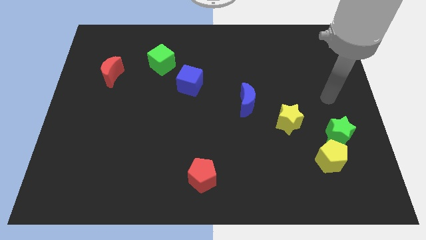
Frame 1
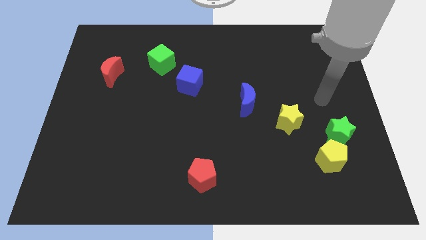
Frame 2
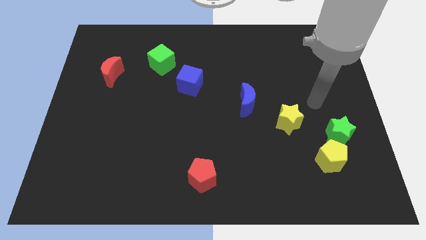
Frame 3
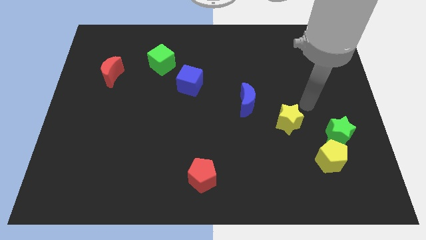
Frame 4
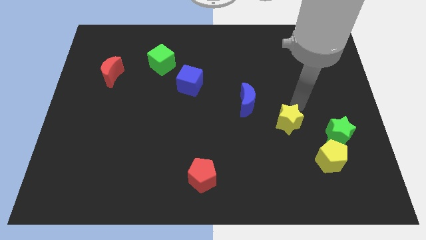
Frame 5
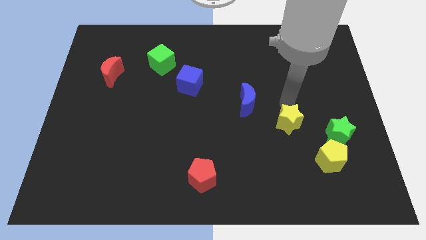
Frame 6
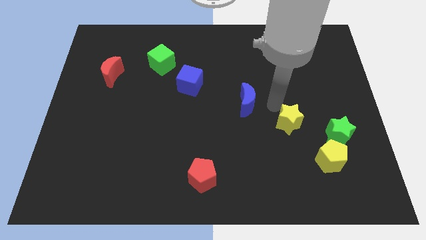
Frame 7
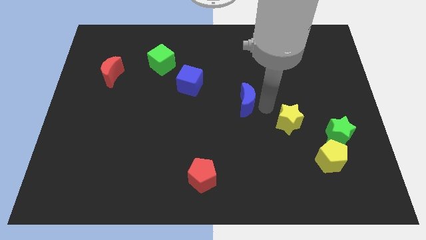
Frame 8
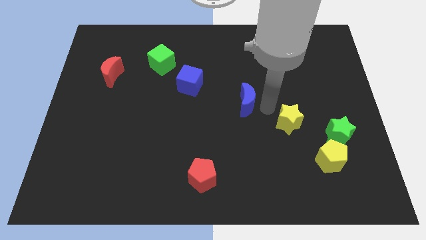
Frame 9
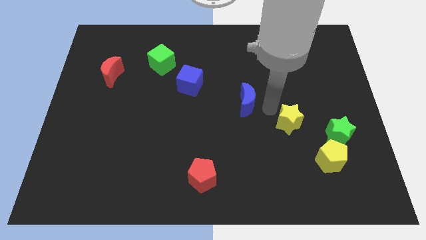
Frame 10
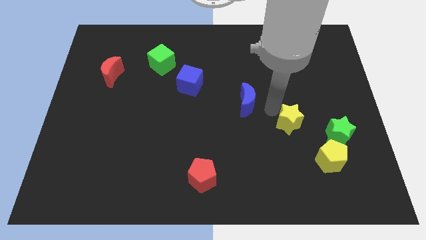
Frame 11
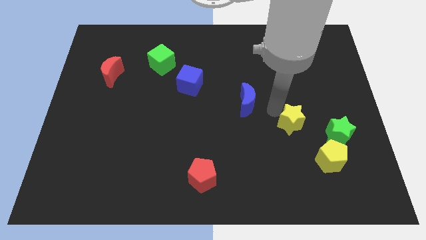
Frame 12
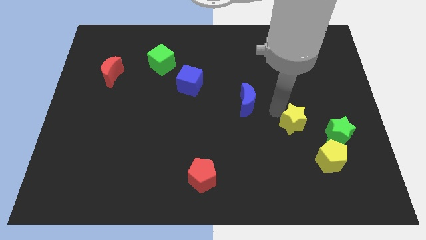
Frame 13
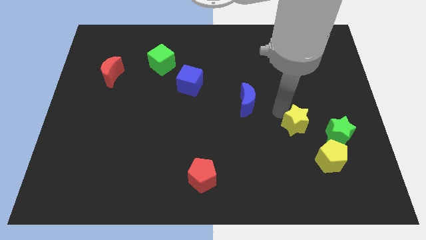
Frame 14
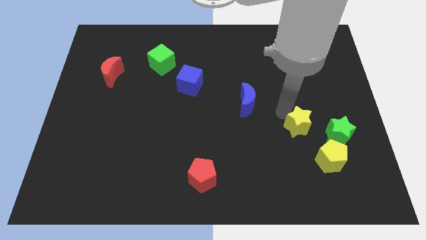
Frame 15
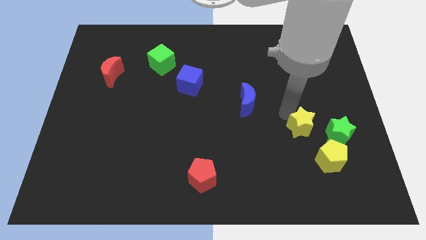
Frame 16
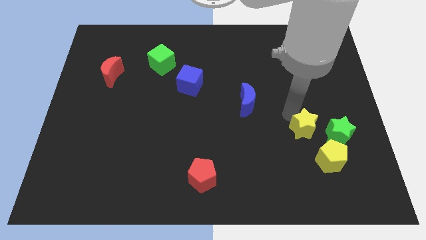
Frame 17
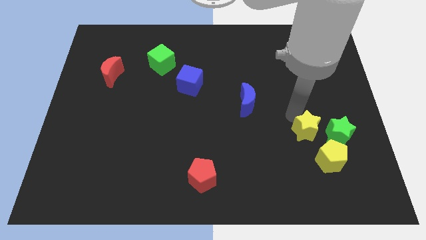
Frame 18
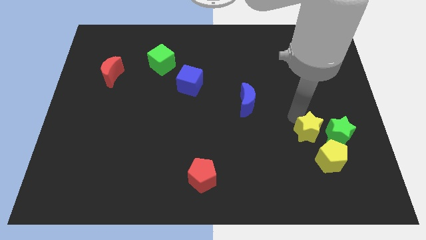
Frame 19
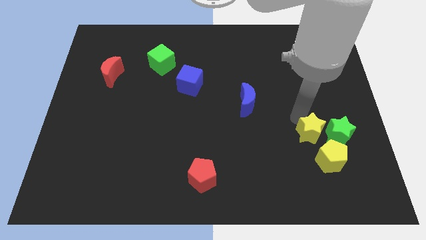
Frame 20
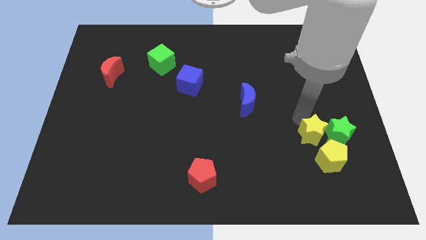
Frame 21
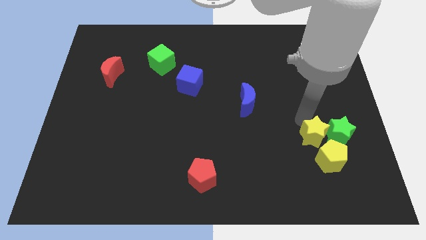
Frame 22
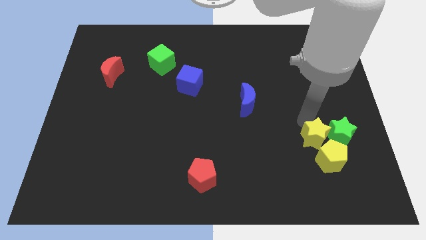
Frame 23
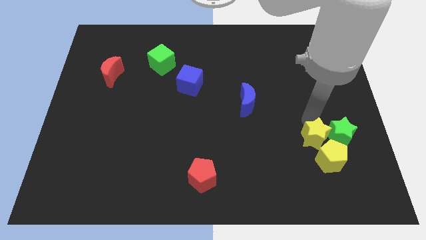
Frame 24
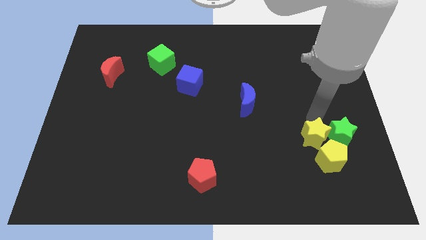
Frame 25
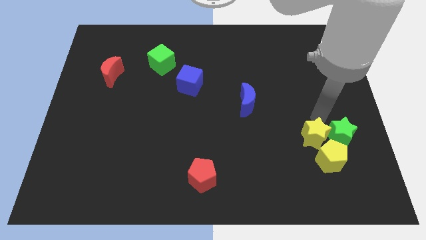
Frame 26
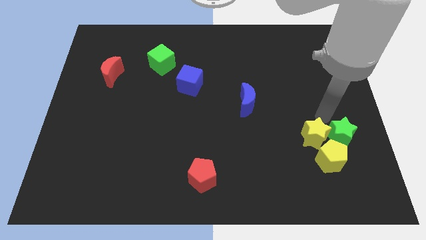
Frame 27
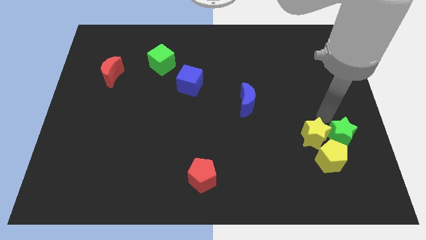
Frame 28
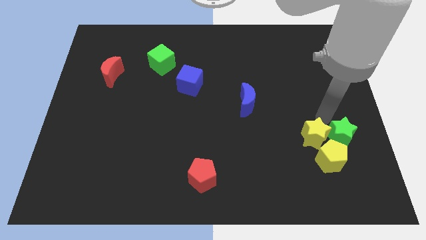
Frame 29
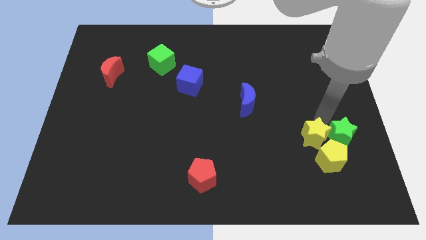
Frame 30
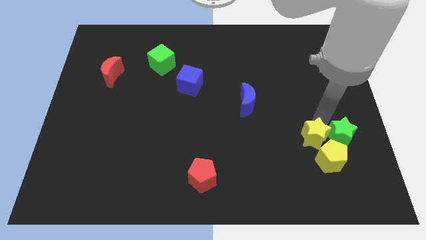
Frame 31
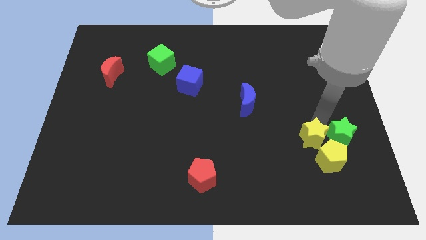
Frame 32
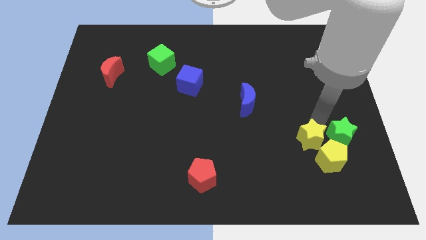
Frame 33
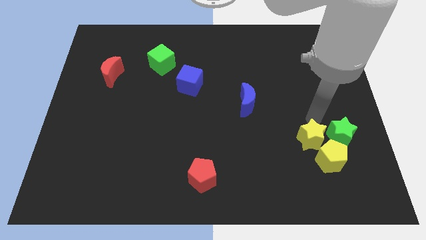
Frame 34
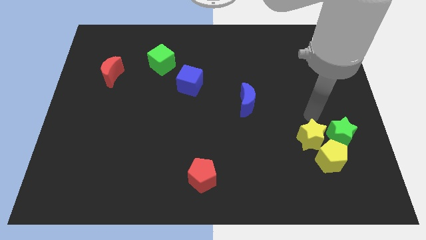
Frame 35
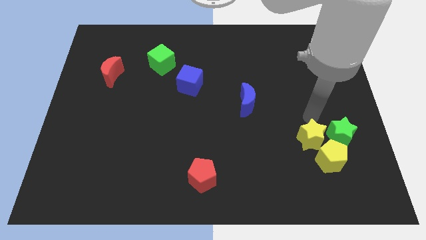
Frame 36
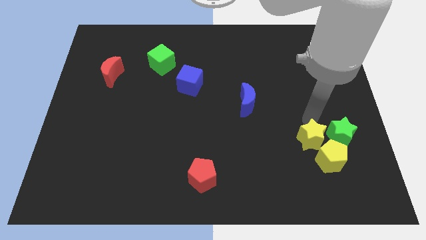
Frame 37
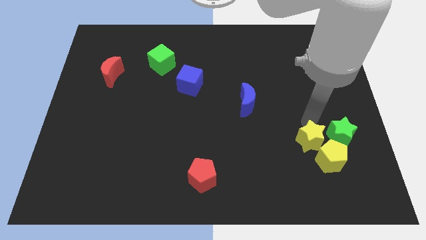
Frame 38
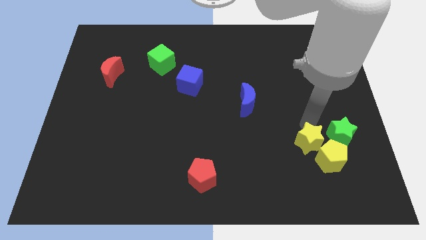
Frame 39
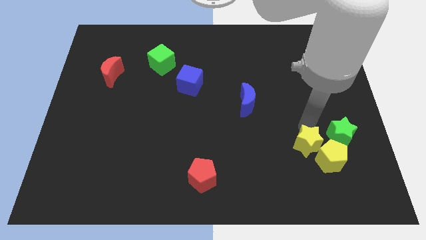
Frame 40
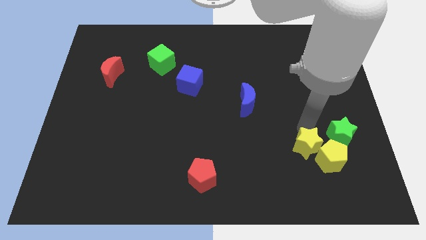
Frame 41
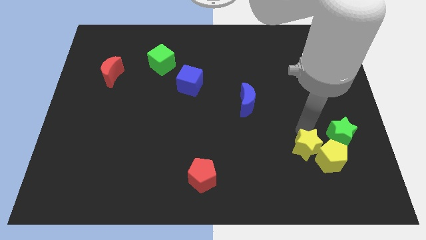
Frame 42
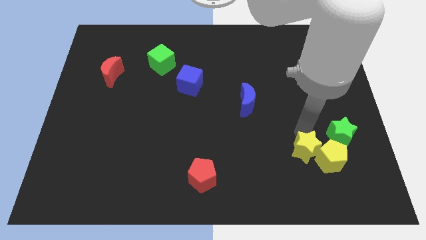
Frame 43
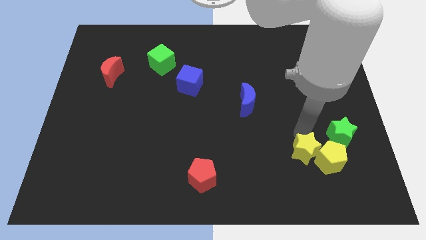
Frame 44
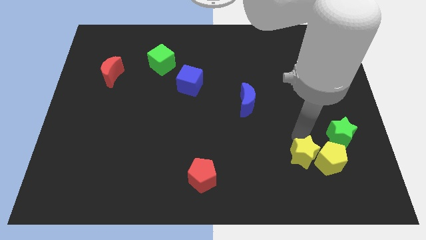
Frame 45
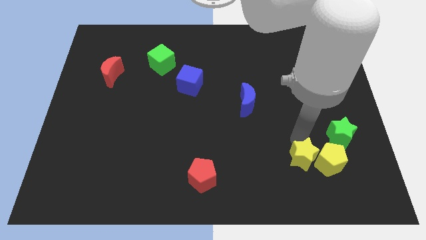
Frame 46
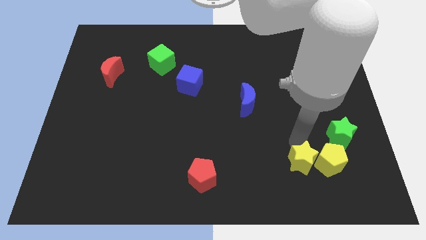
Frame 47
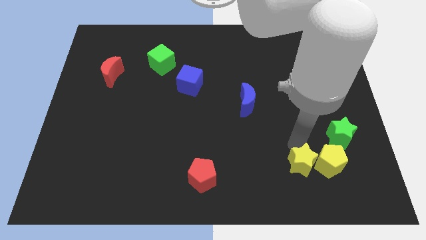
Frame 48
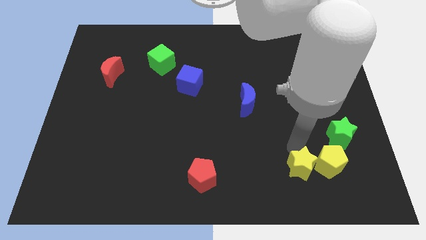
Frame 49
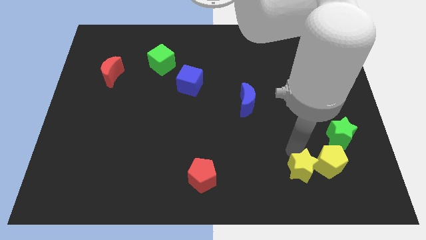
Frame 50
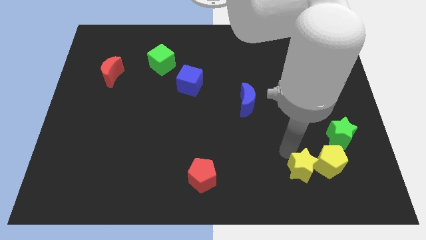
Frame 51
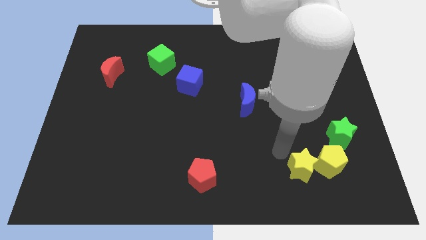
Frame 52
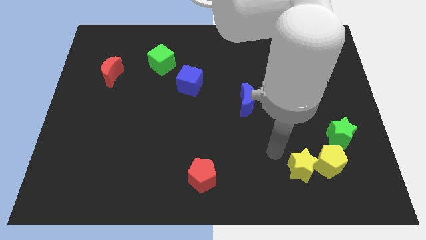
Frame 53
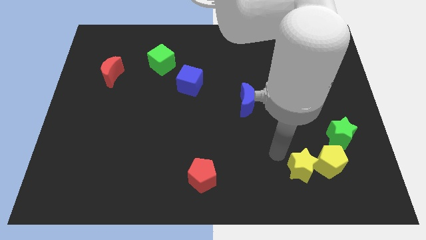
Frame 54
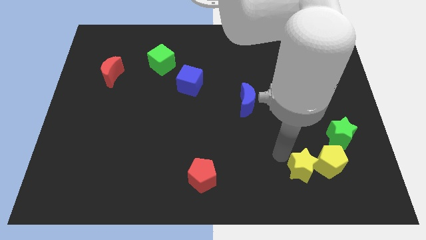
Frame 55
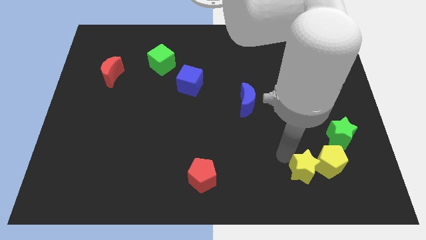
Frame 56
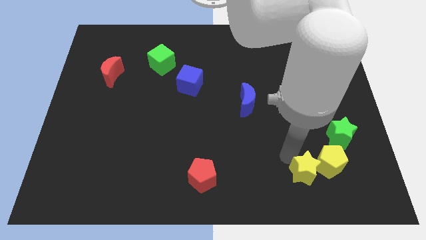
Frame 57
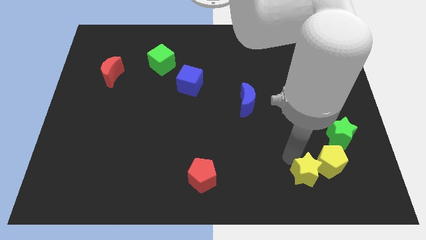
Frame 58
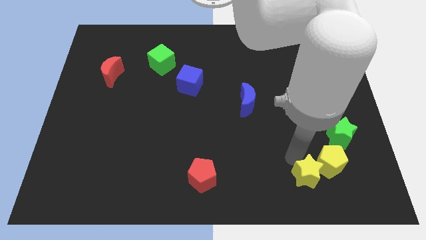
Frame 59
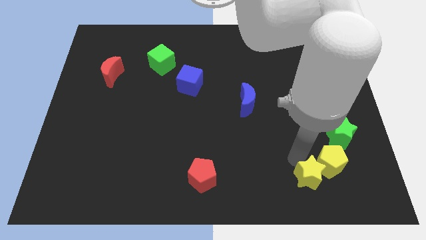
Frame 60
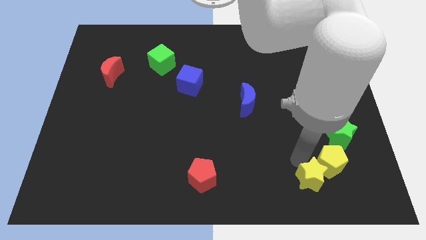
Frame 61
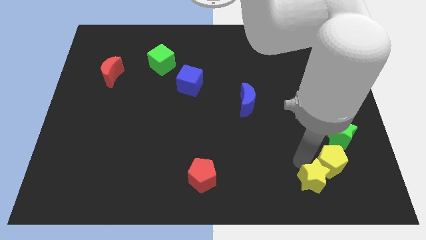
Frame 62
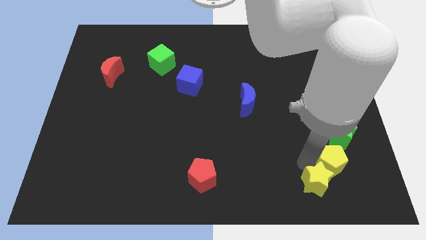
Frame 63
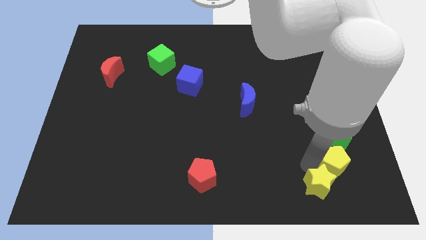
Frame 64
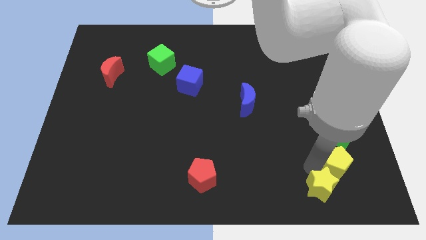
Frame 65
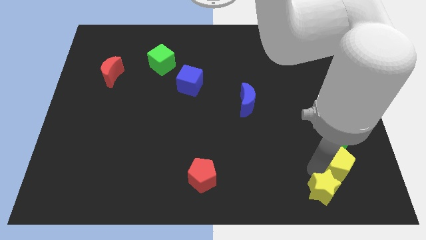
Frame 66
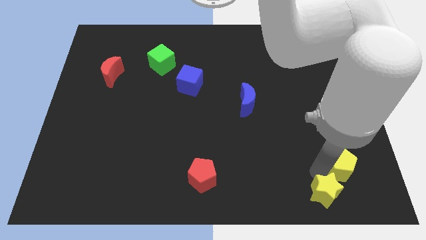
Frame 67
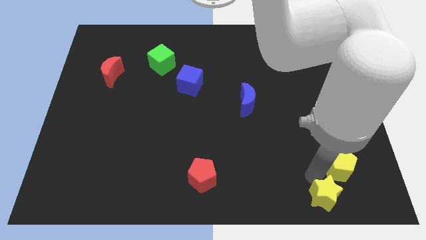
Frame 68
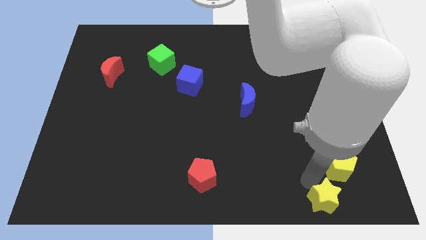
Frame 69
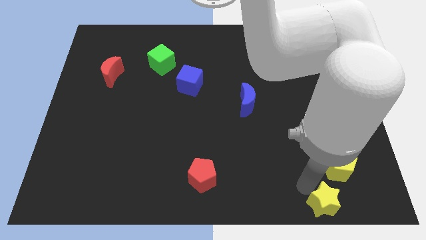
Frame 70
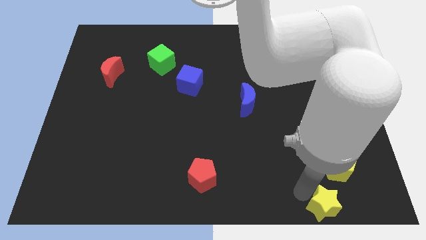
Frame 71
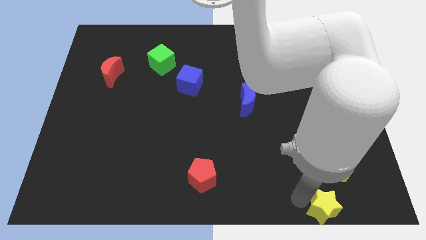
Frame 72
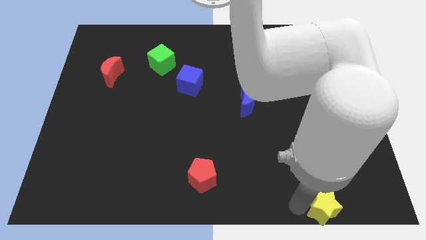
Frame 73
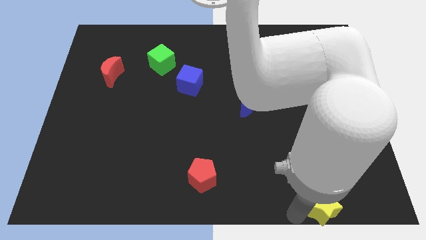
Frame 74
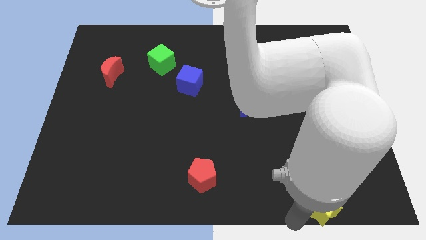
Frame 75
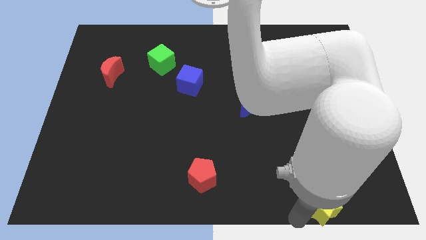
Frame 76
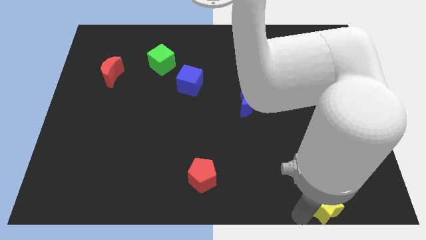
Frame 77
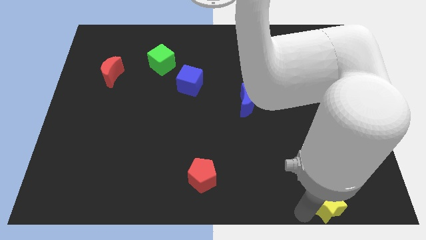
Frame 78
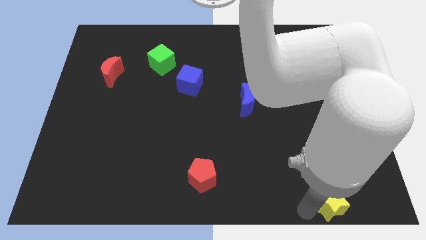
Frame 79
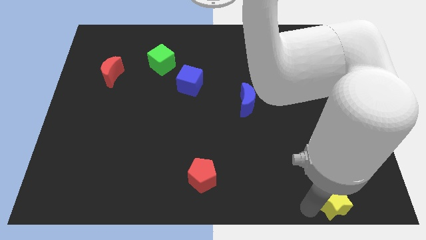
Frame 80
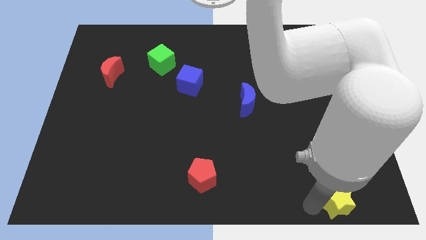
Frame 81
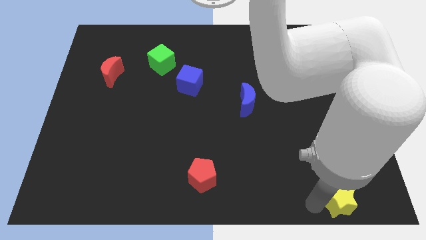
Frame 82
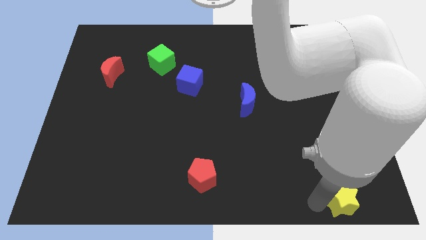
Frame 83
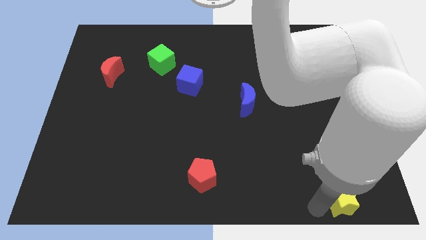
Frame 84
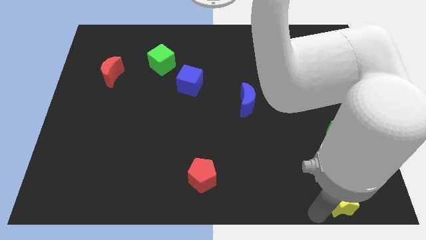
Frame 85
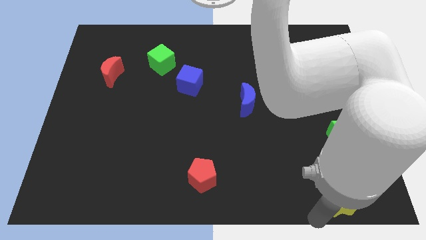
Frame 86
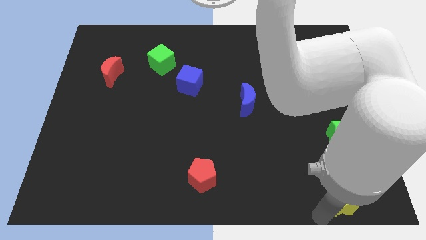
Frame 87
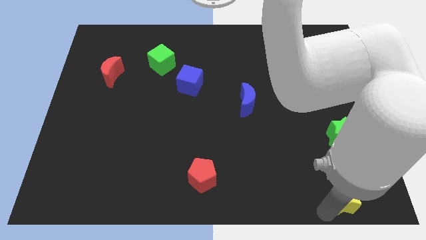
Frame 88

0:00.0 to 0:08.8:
push the yellow star to the bottom right corner
